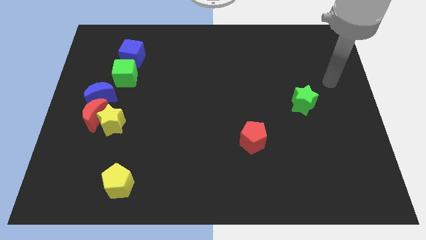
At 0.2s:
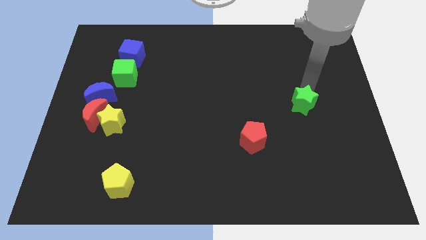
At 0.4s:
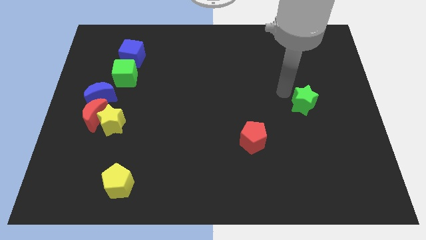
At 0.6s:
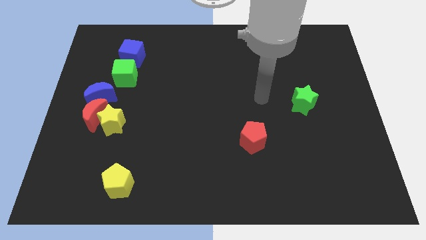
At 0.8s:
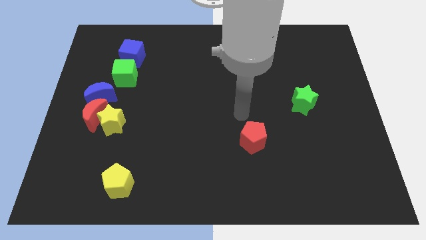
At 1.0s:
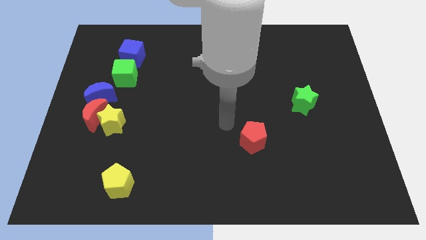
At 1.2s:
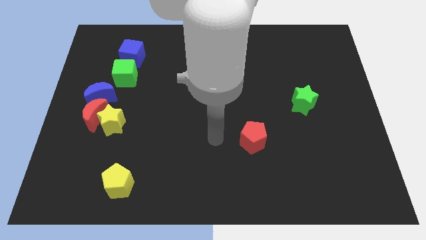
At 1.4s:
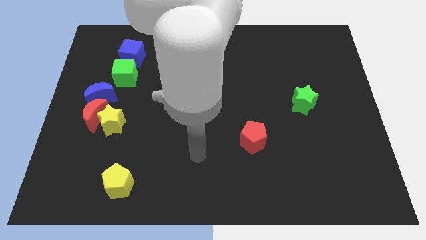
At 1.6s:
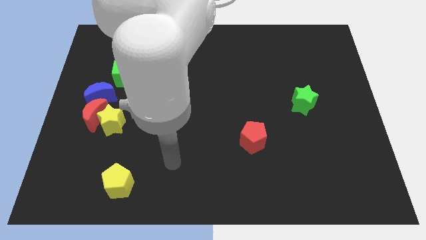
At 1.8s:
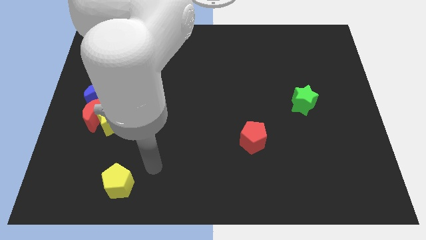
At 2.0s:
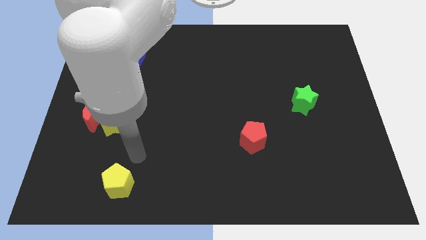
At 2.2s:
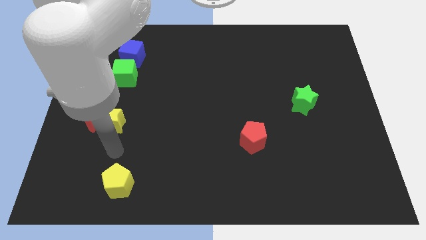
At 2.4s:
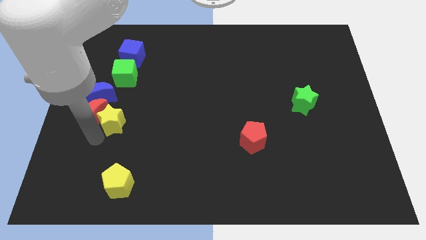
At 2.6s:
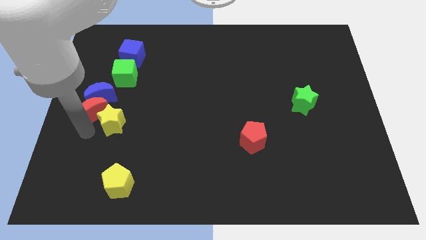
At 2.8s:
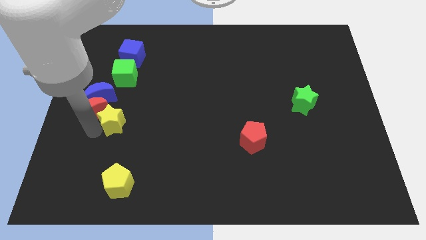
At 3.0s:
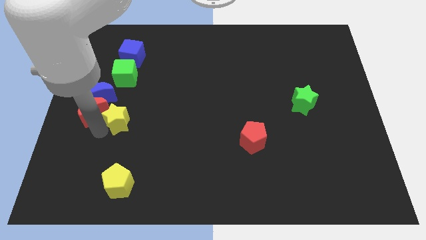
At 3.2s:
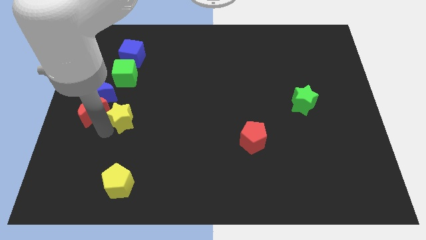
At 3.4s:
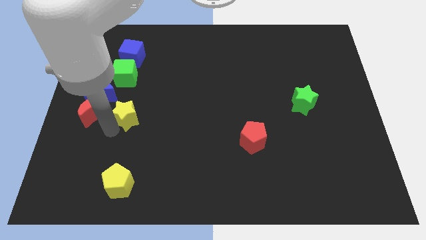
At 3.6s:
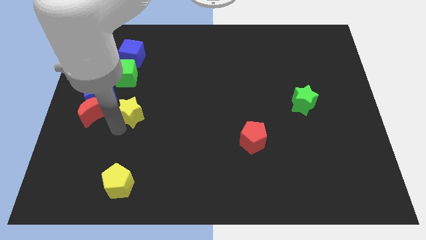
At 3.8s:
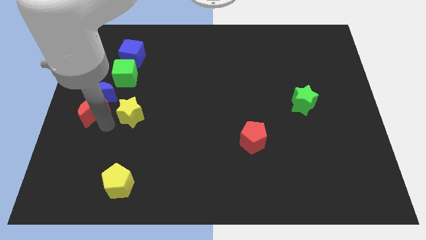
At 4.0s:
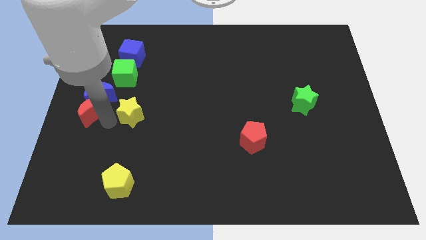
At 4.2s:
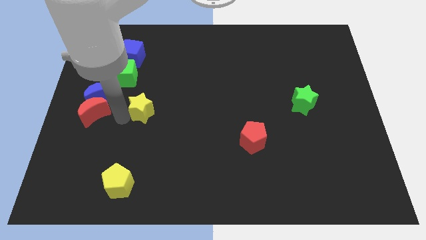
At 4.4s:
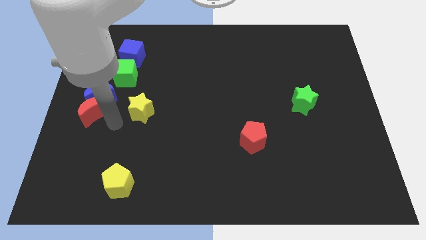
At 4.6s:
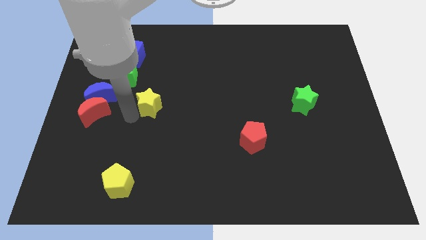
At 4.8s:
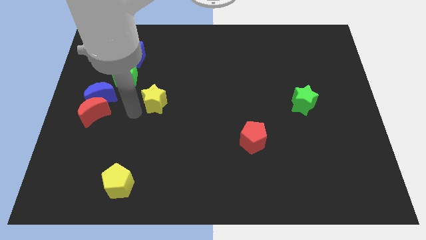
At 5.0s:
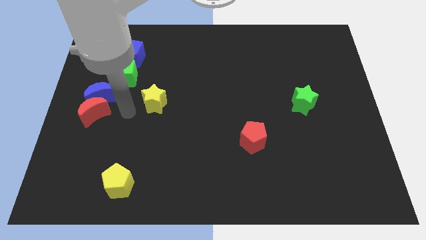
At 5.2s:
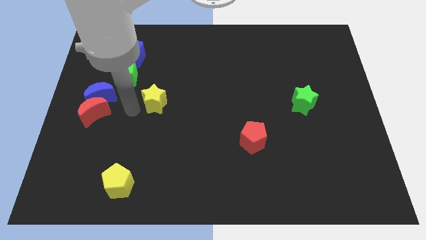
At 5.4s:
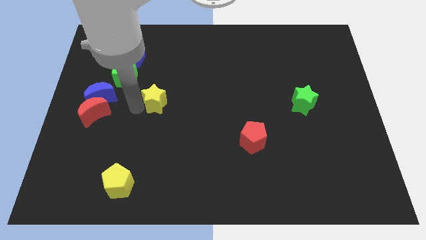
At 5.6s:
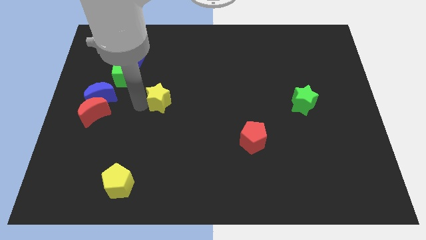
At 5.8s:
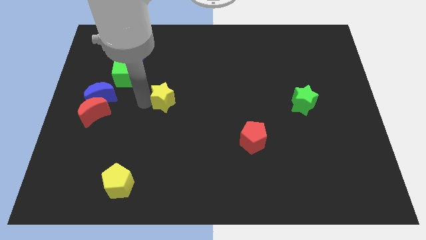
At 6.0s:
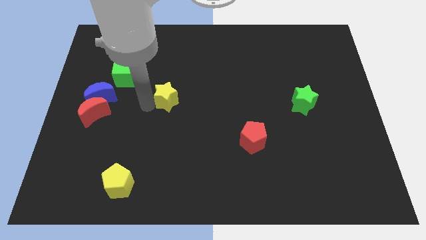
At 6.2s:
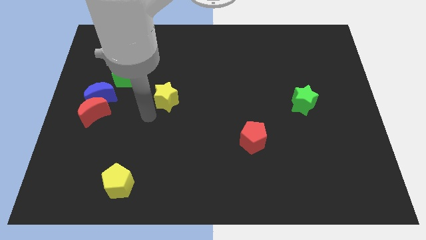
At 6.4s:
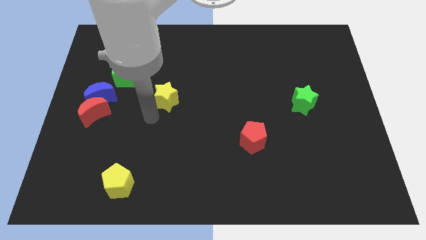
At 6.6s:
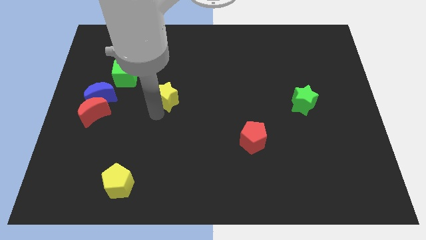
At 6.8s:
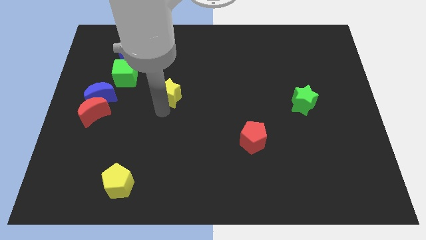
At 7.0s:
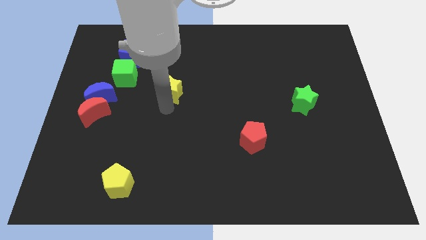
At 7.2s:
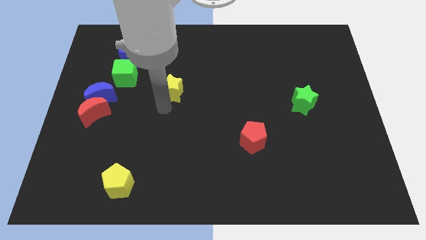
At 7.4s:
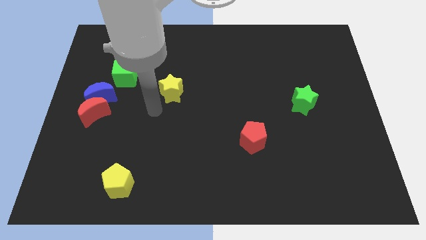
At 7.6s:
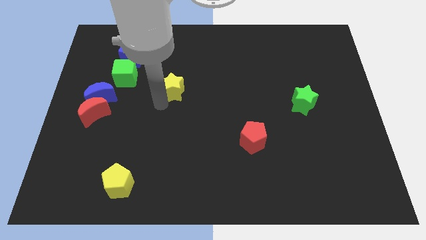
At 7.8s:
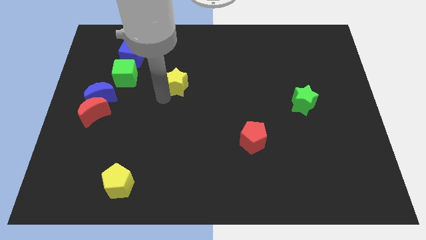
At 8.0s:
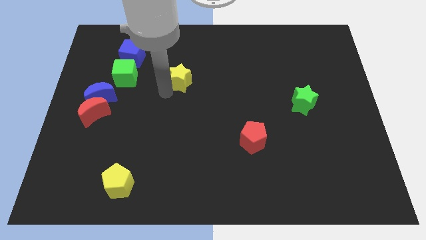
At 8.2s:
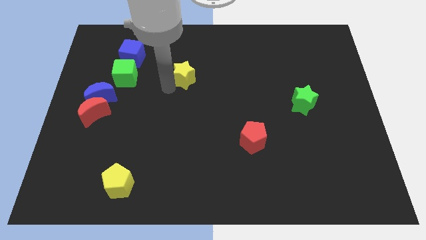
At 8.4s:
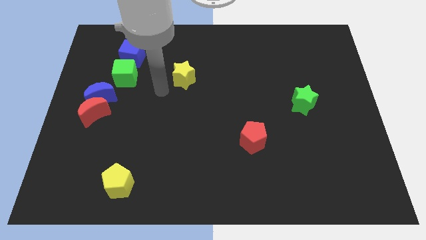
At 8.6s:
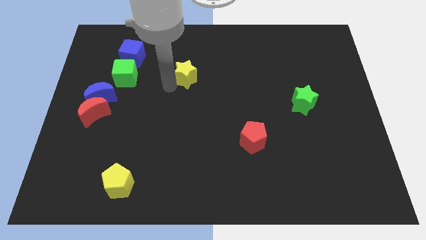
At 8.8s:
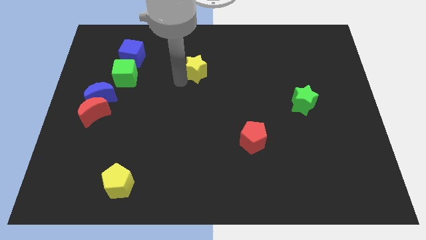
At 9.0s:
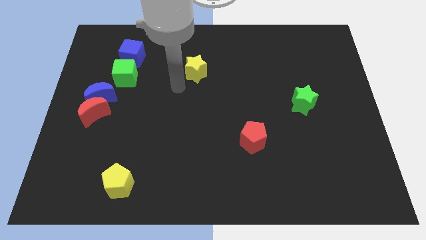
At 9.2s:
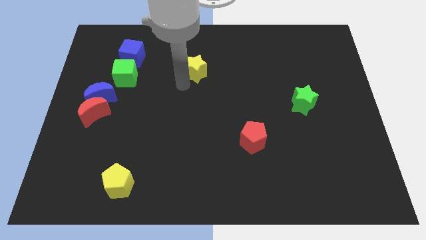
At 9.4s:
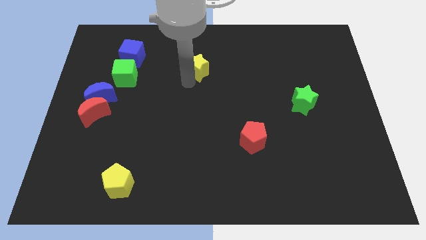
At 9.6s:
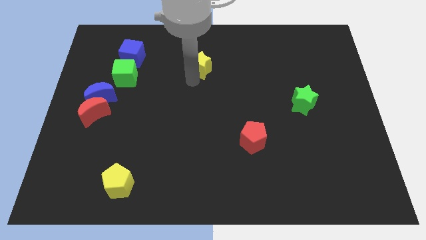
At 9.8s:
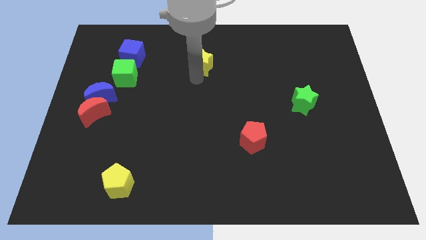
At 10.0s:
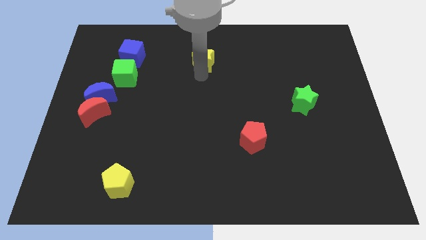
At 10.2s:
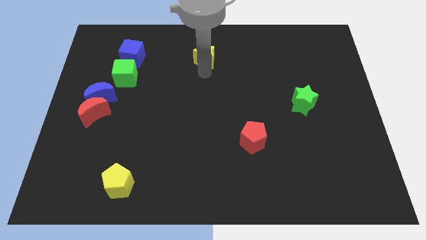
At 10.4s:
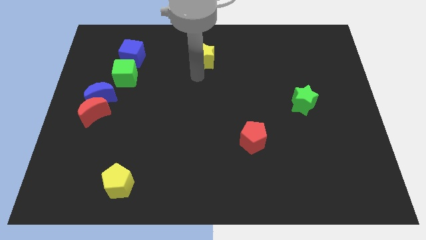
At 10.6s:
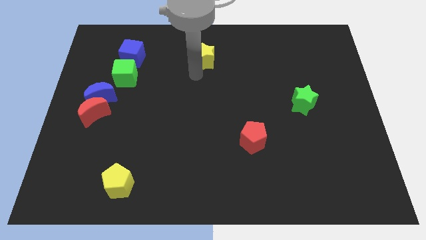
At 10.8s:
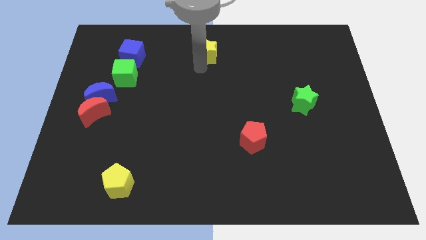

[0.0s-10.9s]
move the yellow star to the top side
